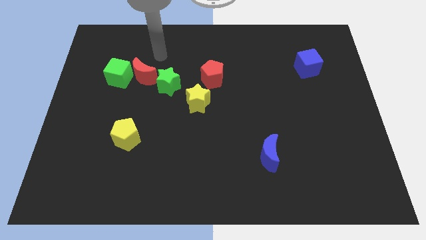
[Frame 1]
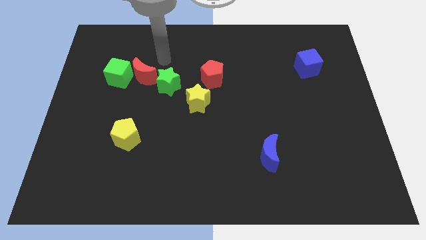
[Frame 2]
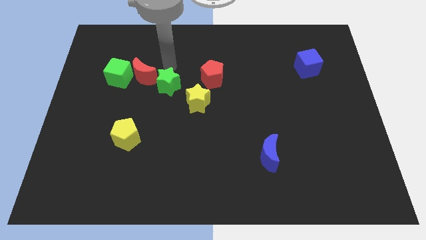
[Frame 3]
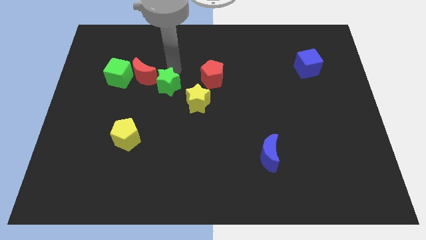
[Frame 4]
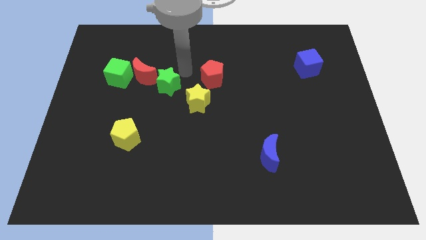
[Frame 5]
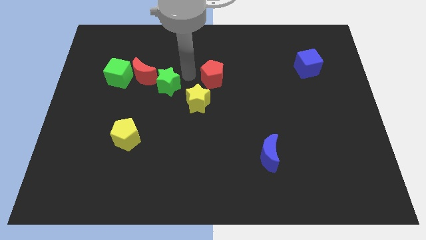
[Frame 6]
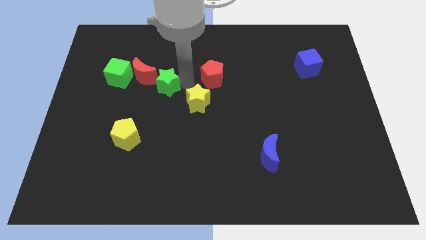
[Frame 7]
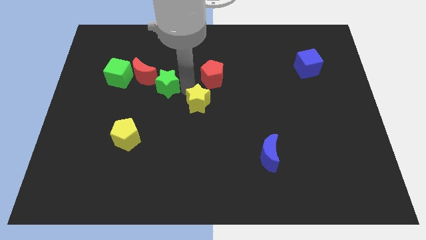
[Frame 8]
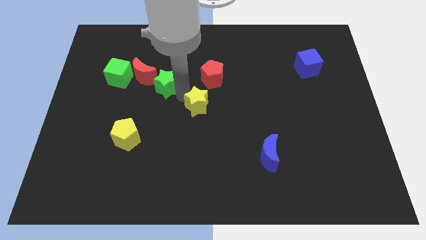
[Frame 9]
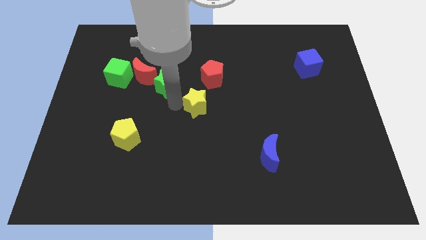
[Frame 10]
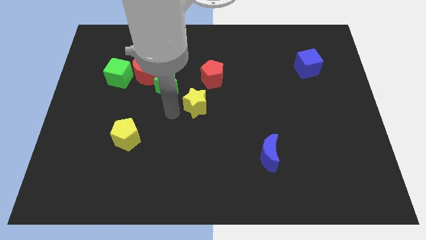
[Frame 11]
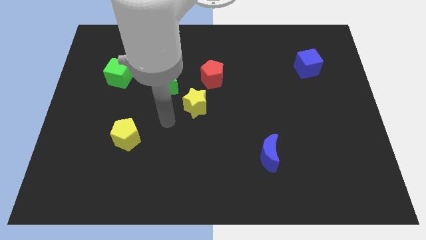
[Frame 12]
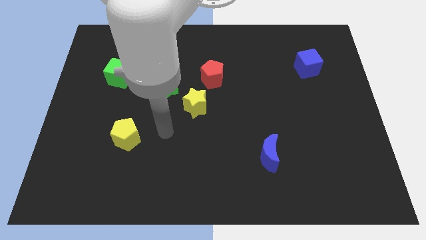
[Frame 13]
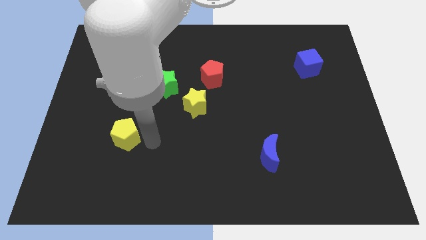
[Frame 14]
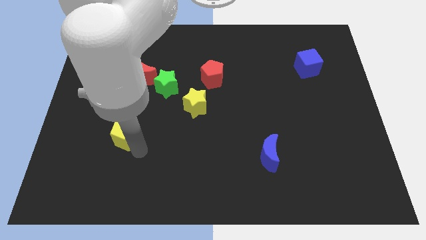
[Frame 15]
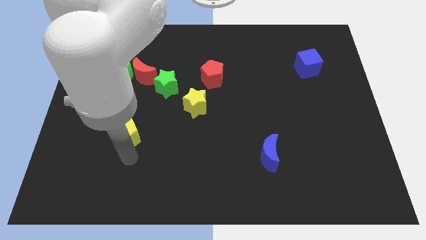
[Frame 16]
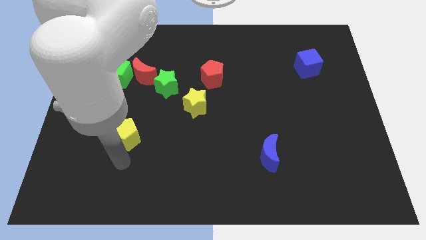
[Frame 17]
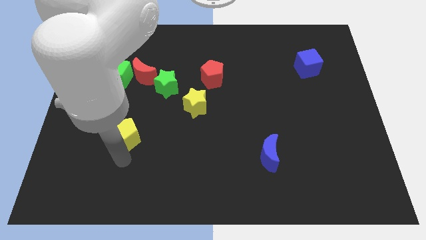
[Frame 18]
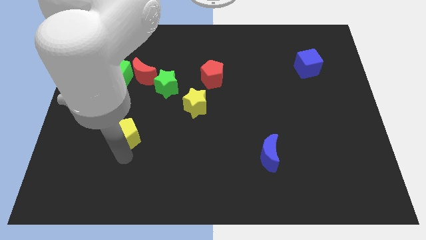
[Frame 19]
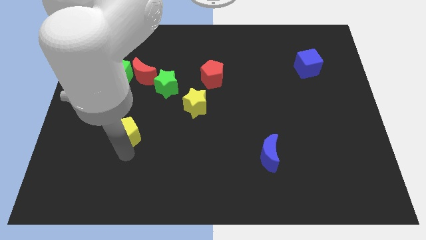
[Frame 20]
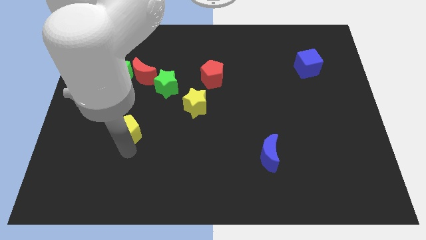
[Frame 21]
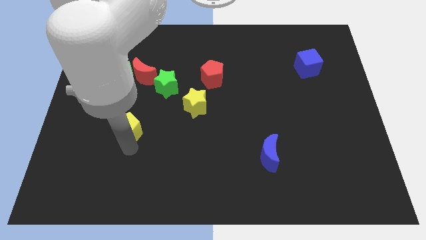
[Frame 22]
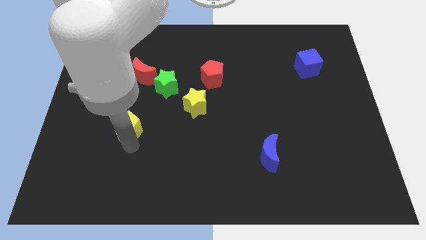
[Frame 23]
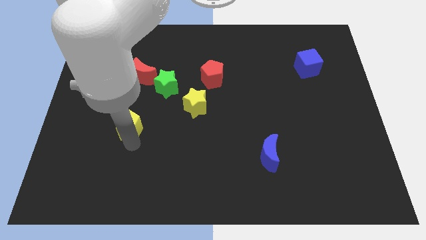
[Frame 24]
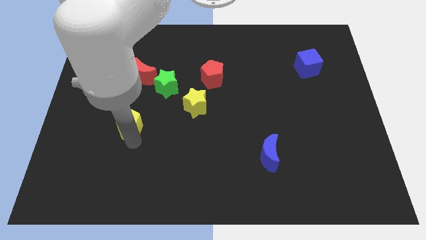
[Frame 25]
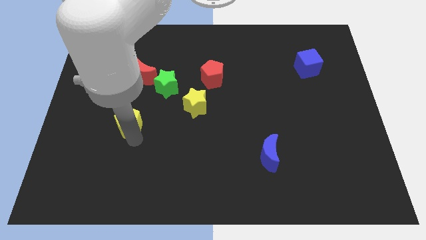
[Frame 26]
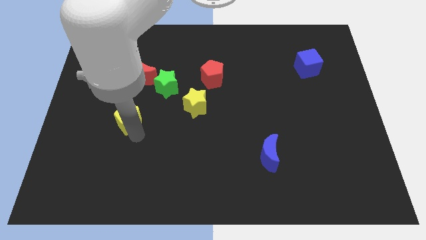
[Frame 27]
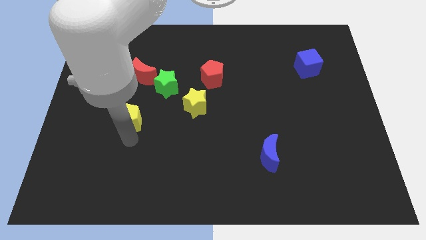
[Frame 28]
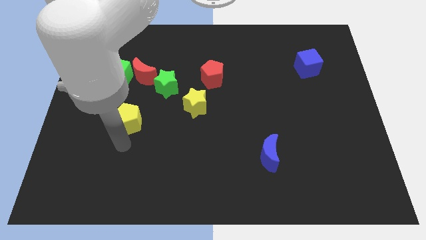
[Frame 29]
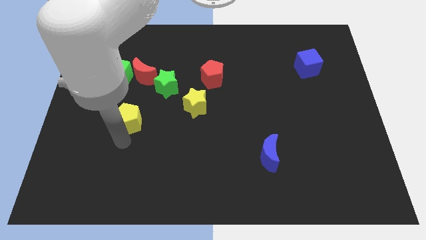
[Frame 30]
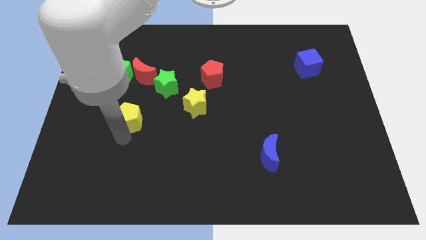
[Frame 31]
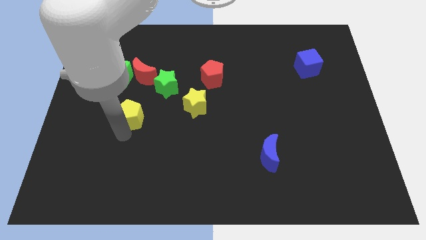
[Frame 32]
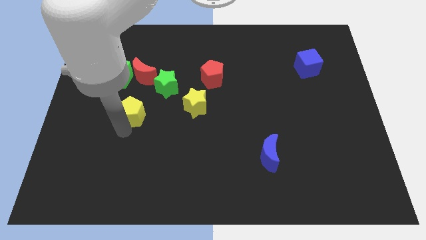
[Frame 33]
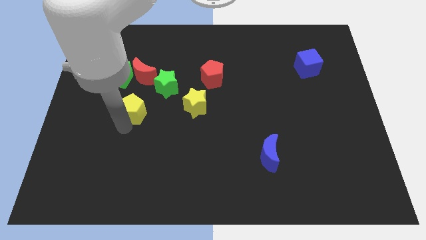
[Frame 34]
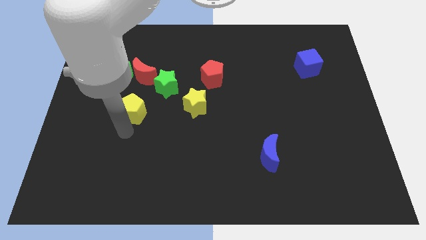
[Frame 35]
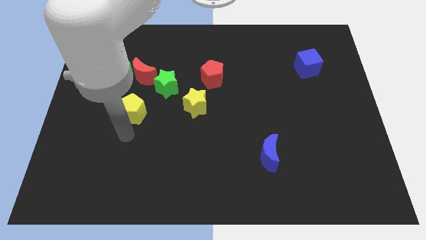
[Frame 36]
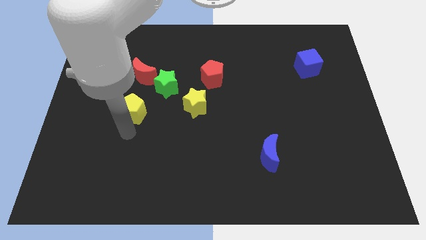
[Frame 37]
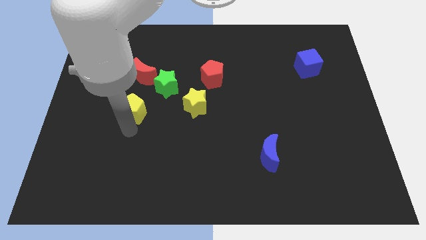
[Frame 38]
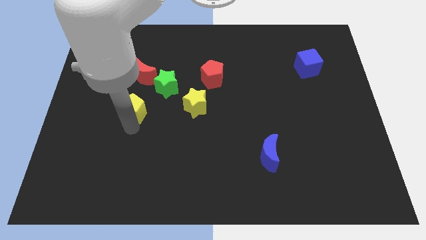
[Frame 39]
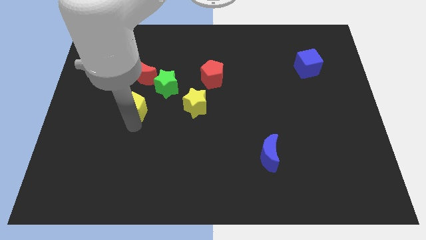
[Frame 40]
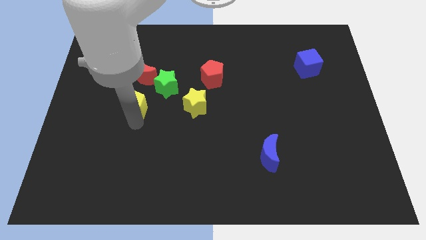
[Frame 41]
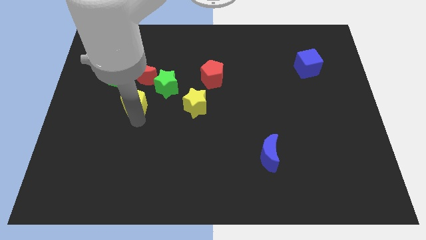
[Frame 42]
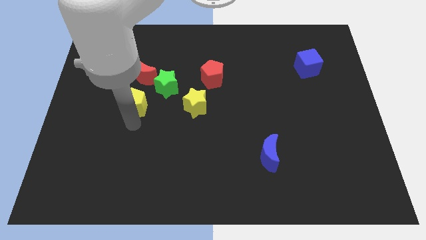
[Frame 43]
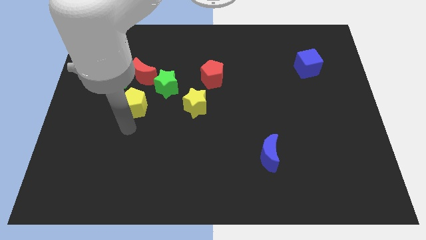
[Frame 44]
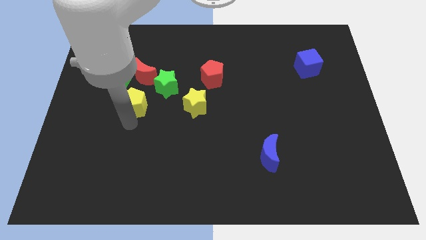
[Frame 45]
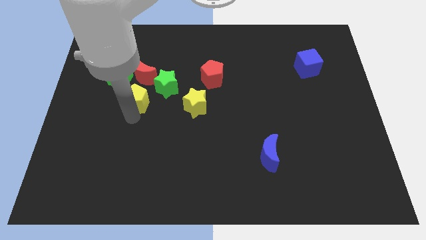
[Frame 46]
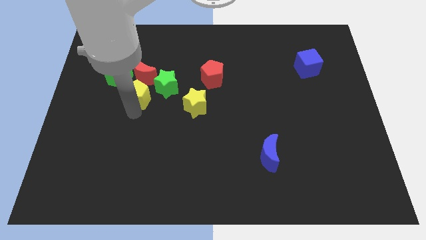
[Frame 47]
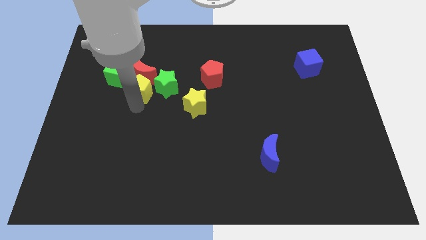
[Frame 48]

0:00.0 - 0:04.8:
push the yellow pentagon towards the red moon

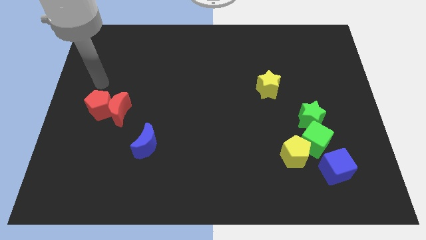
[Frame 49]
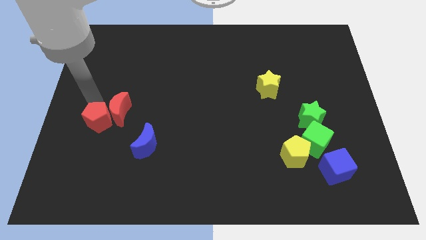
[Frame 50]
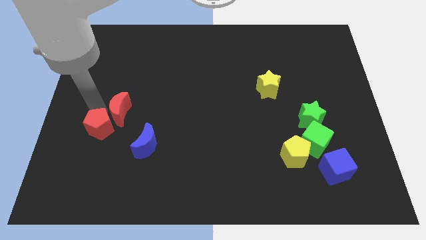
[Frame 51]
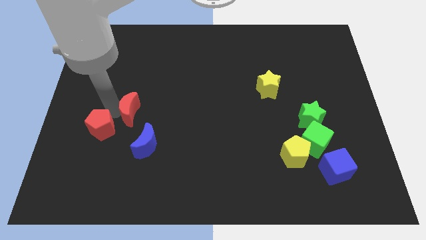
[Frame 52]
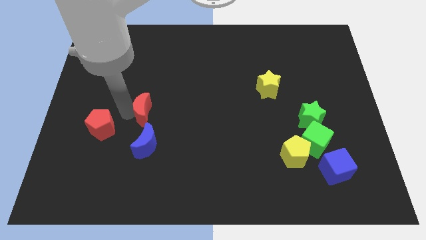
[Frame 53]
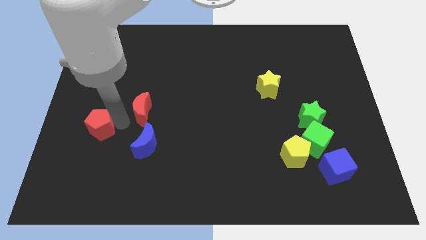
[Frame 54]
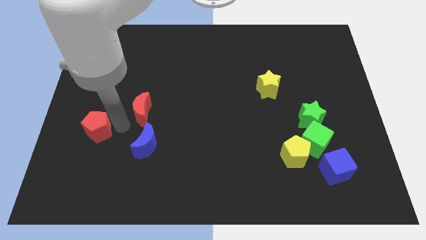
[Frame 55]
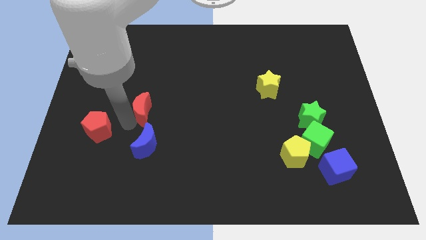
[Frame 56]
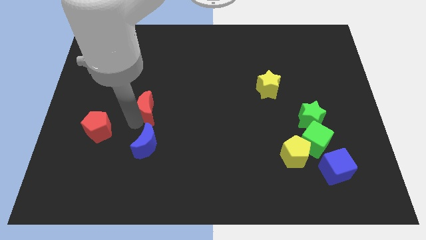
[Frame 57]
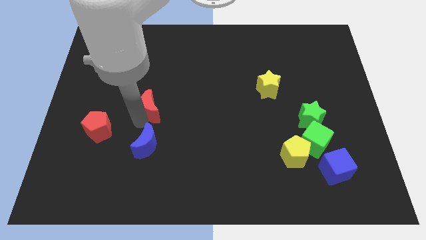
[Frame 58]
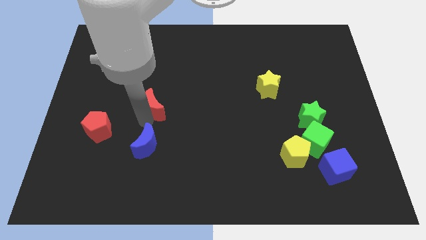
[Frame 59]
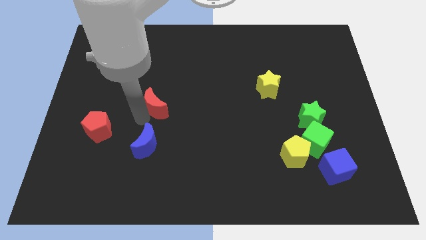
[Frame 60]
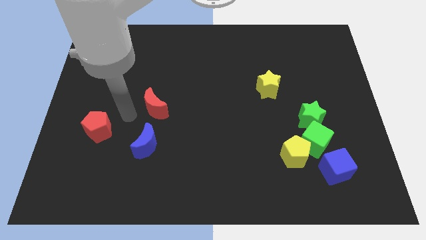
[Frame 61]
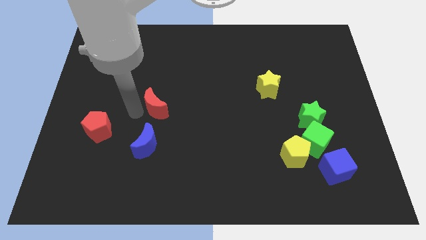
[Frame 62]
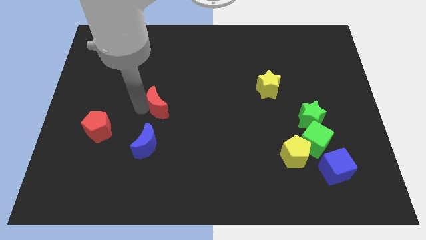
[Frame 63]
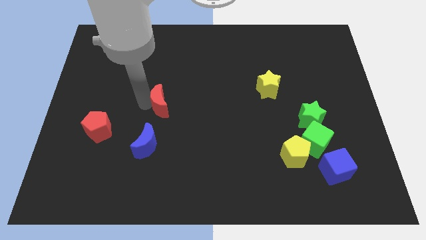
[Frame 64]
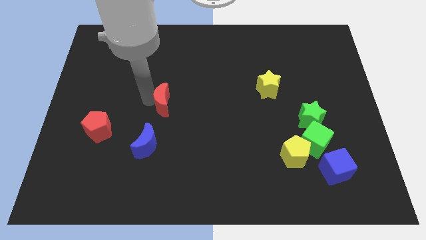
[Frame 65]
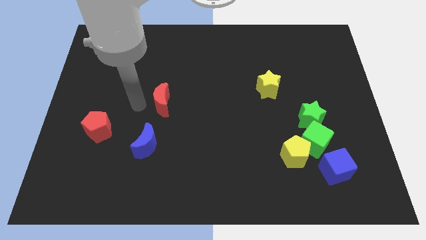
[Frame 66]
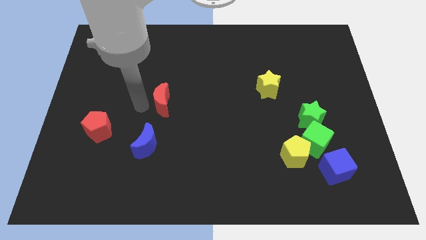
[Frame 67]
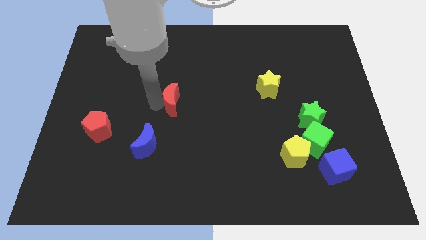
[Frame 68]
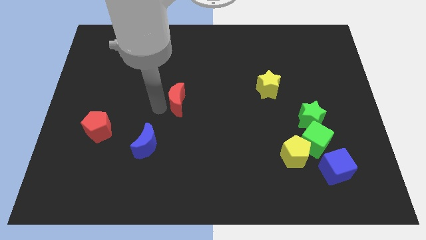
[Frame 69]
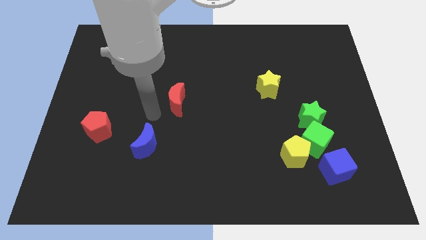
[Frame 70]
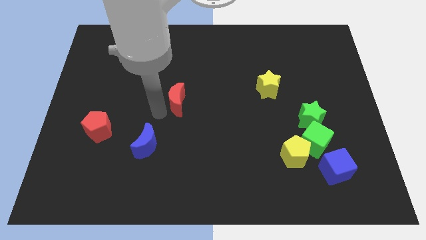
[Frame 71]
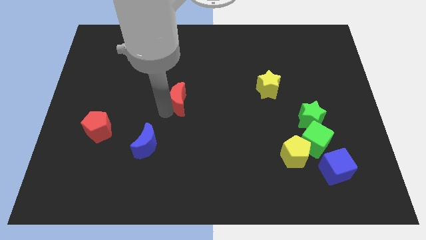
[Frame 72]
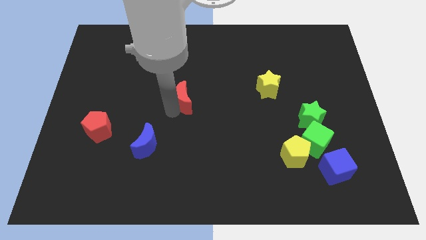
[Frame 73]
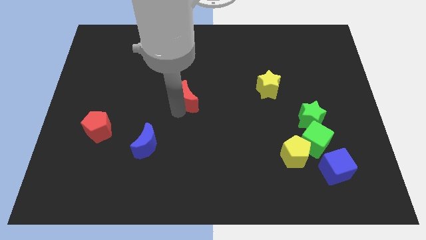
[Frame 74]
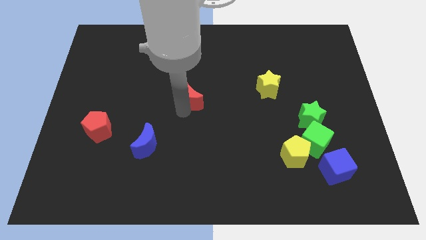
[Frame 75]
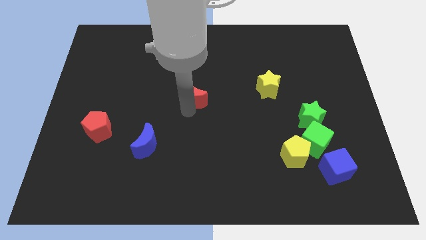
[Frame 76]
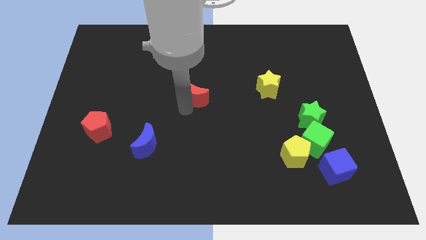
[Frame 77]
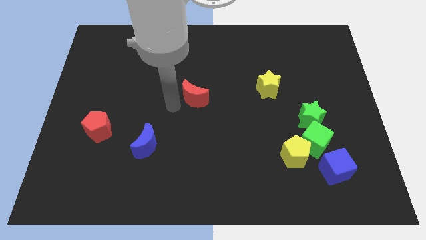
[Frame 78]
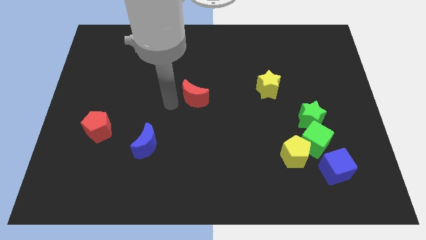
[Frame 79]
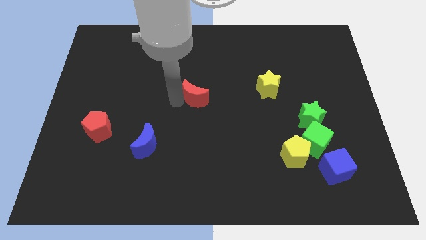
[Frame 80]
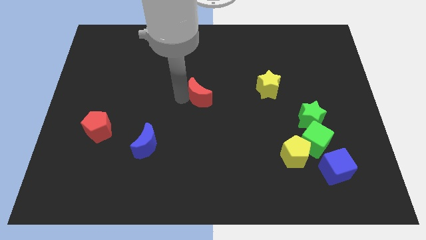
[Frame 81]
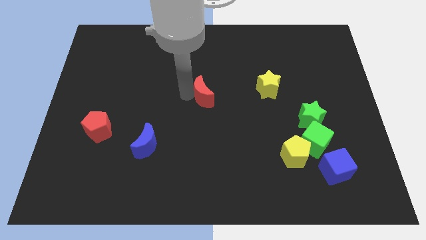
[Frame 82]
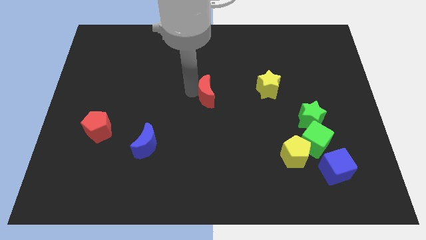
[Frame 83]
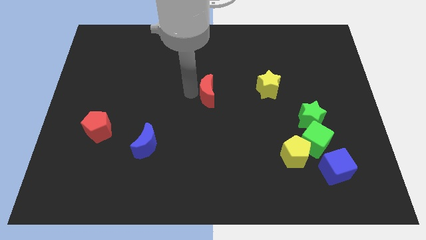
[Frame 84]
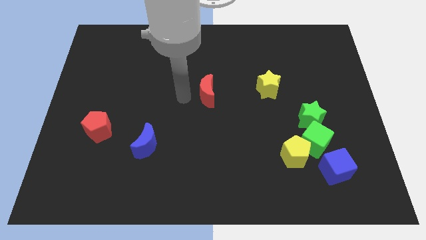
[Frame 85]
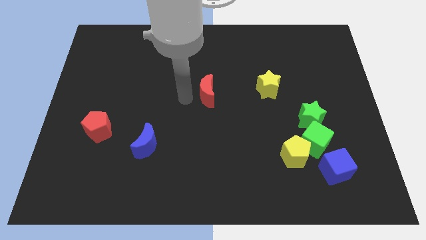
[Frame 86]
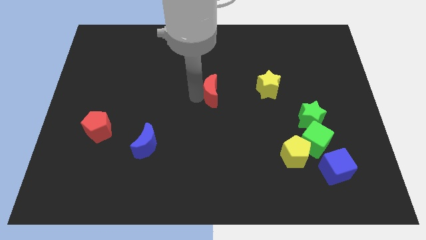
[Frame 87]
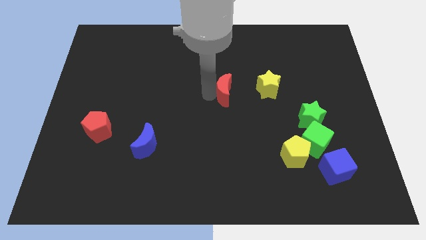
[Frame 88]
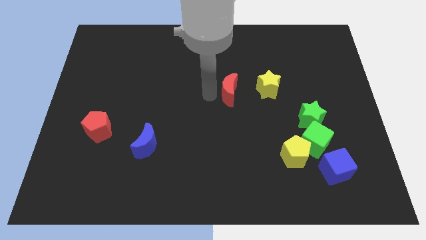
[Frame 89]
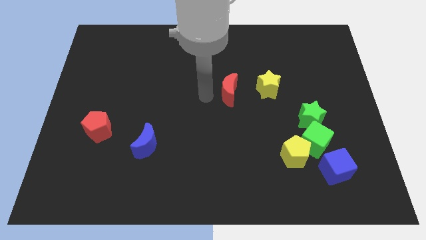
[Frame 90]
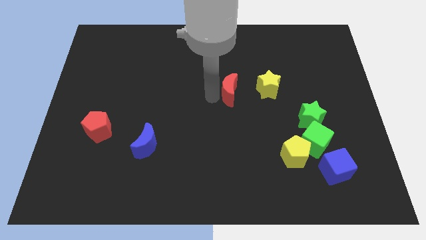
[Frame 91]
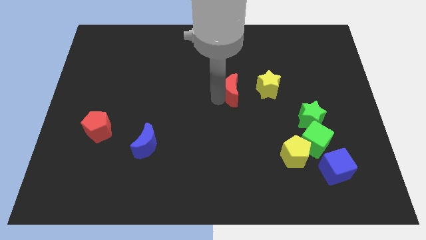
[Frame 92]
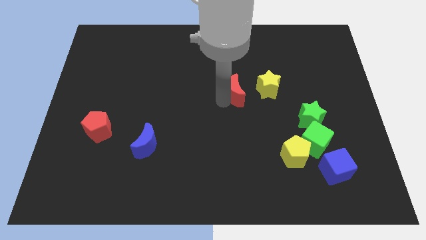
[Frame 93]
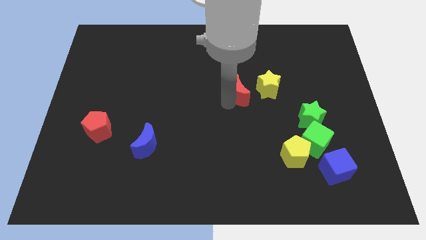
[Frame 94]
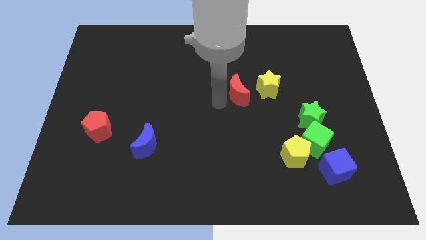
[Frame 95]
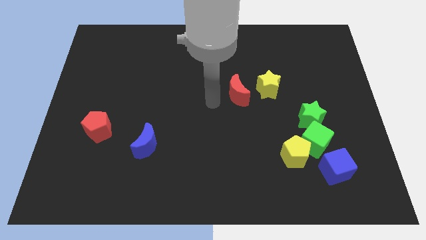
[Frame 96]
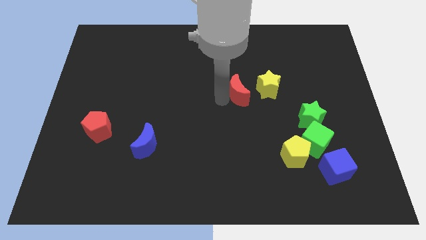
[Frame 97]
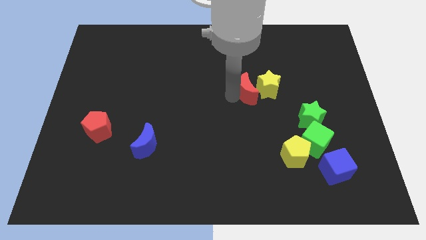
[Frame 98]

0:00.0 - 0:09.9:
put the red moon next to the yellow star
